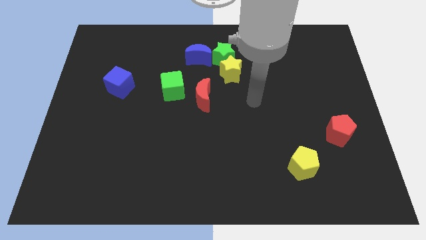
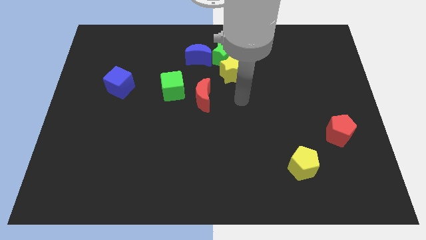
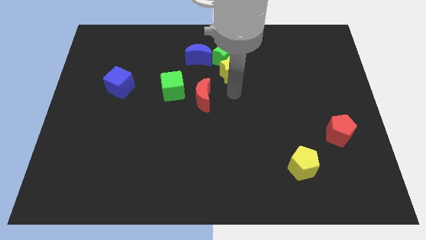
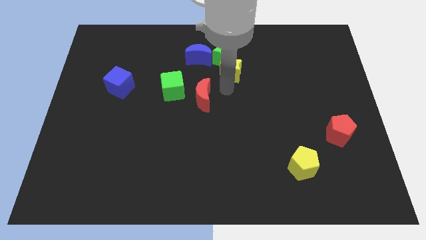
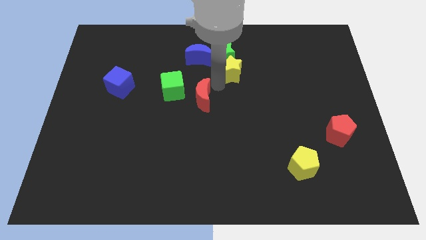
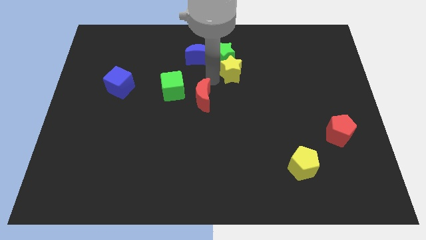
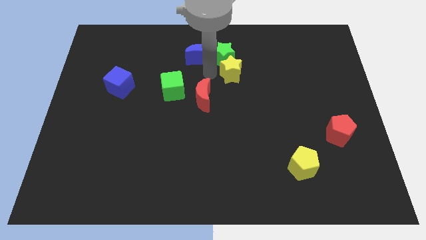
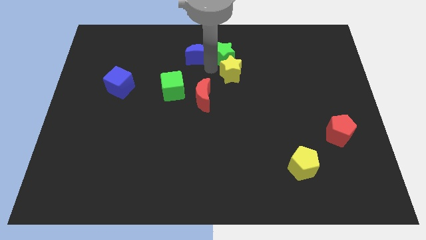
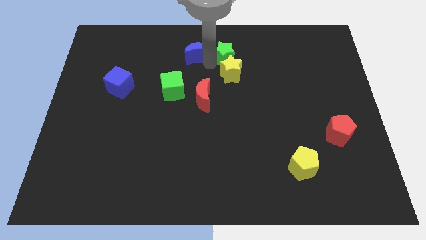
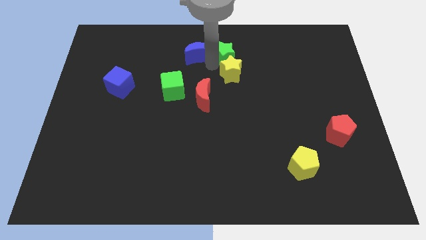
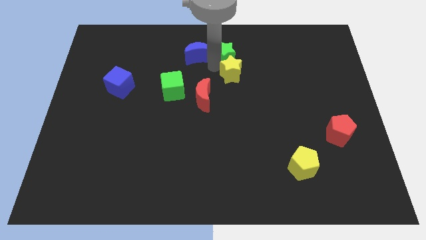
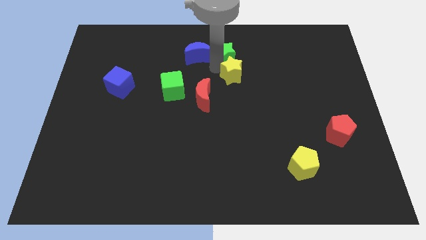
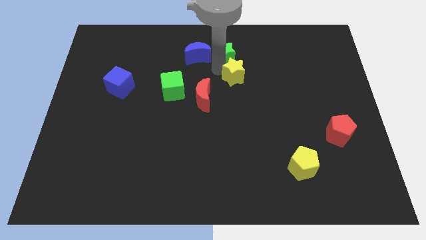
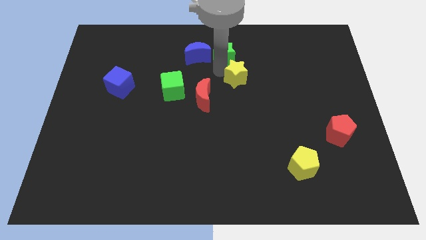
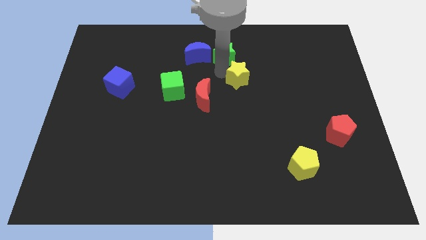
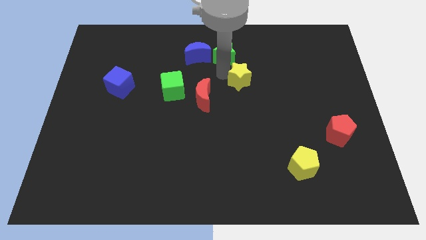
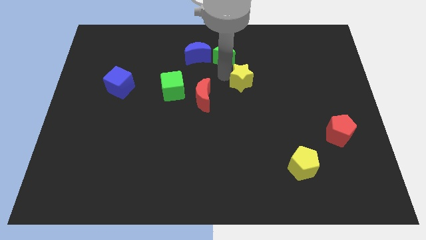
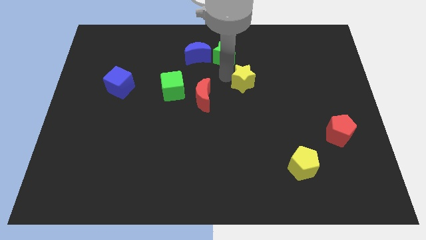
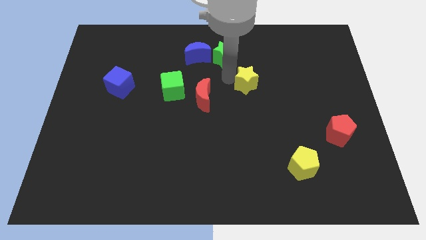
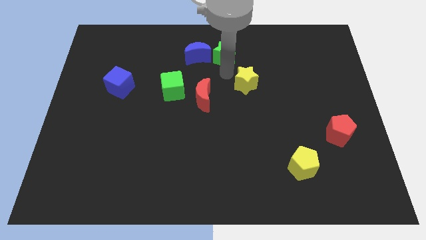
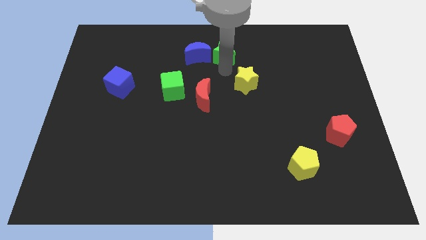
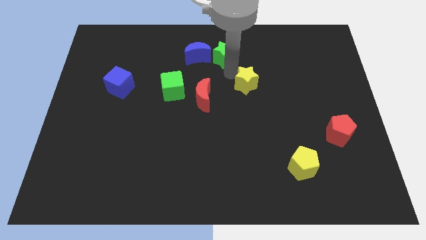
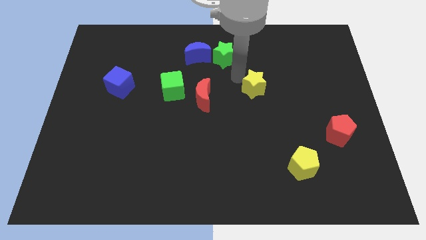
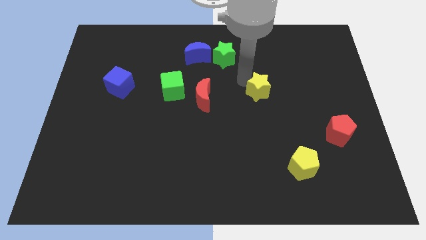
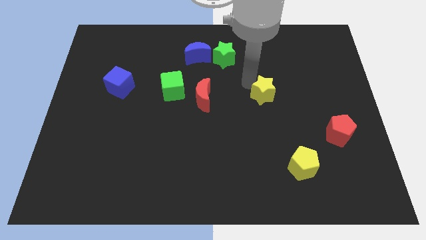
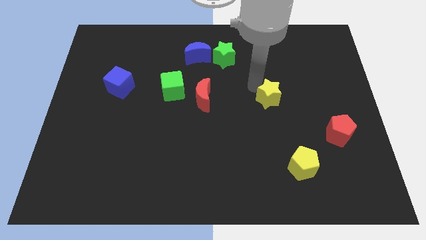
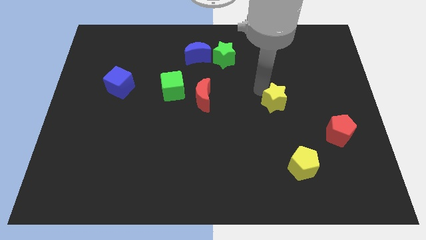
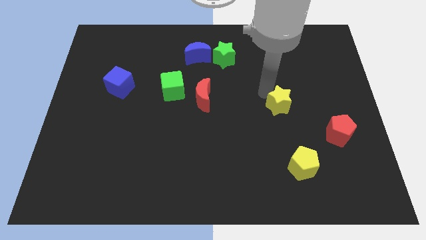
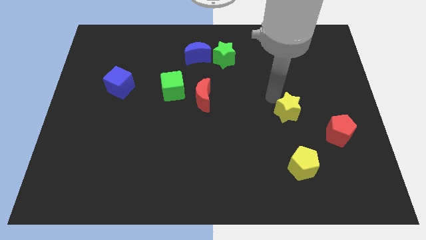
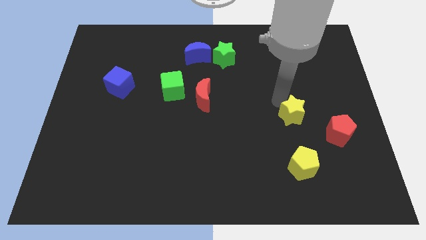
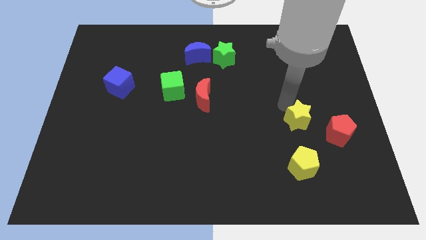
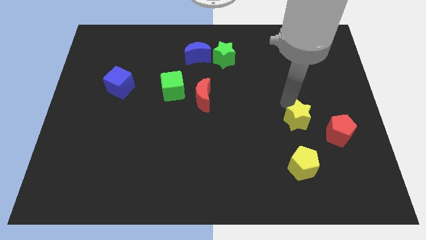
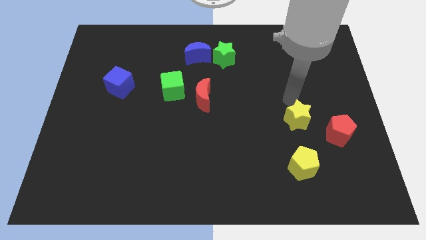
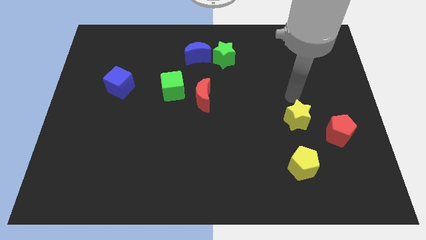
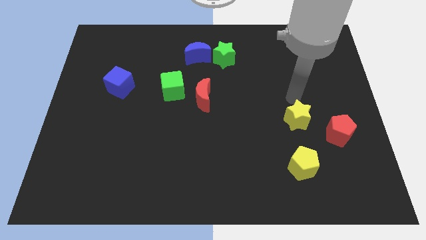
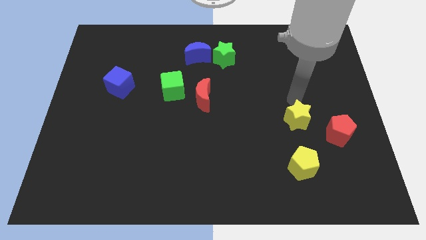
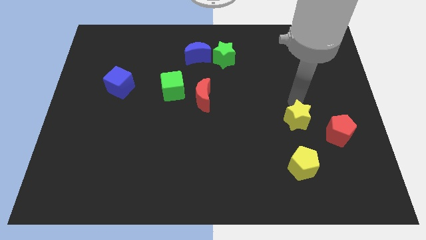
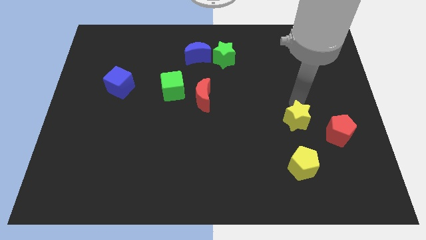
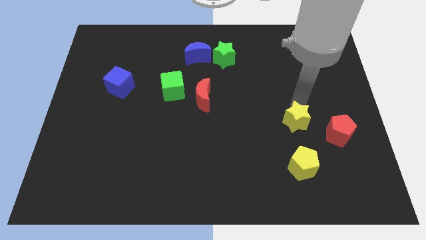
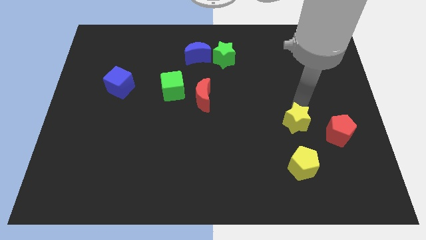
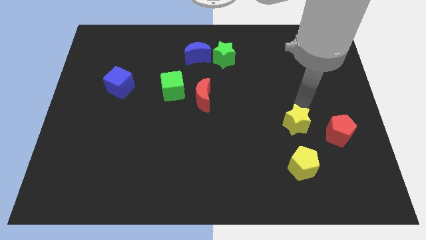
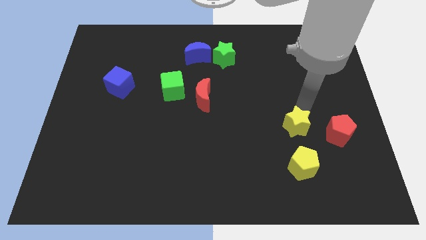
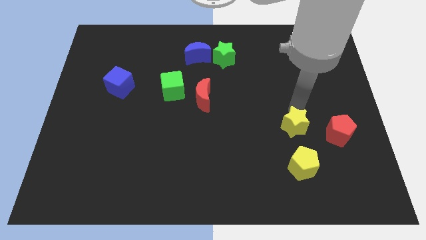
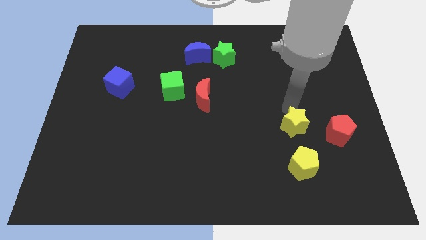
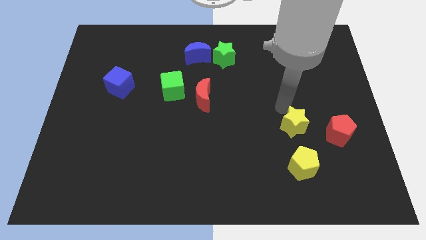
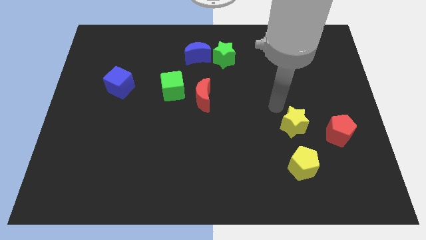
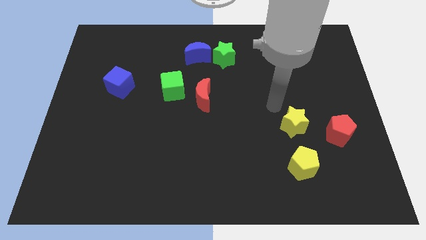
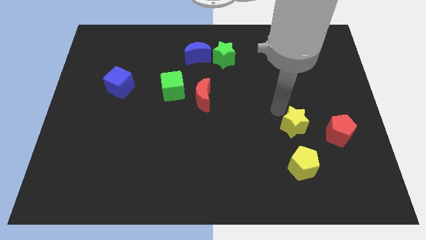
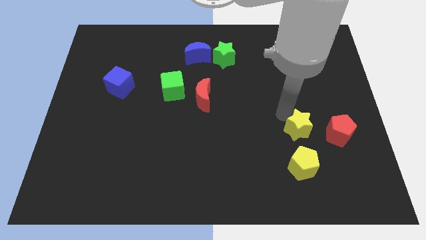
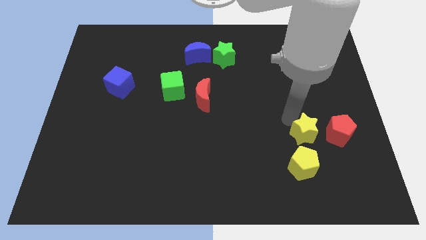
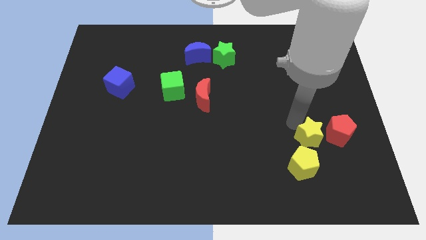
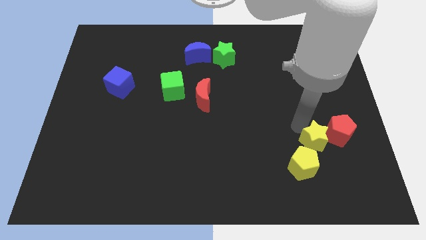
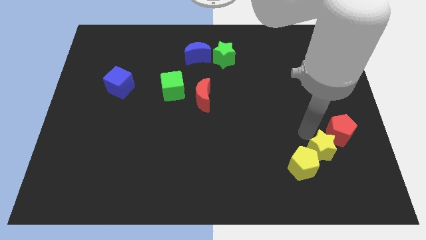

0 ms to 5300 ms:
move the yellow star just right of the yellow pentagon

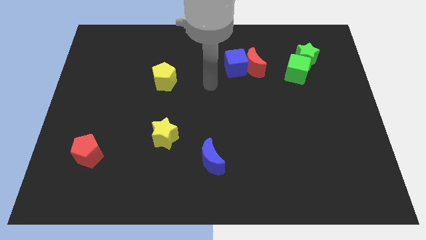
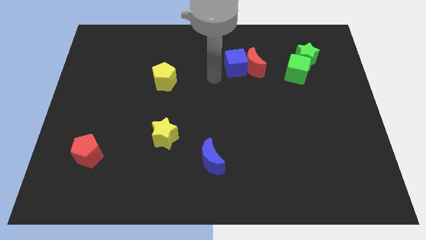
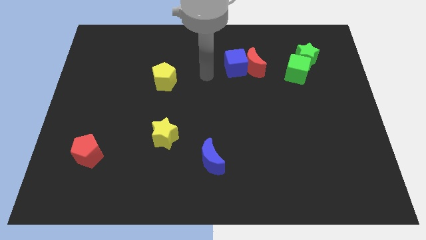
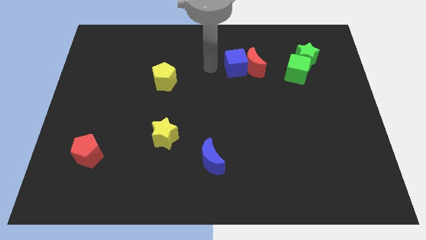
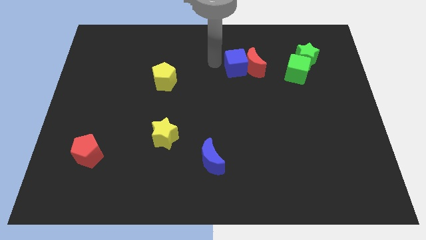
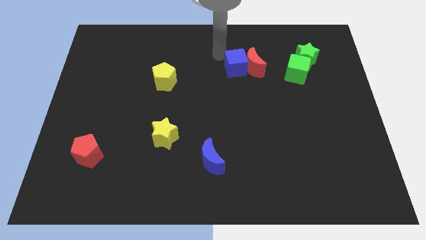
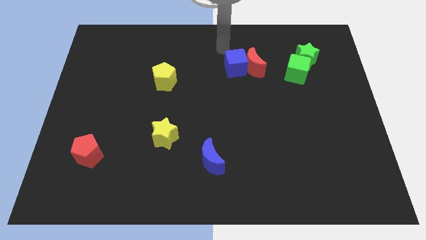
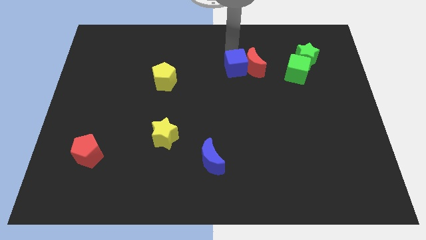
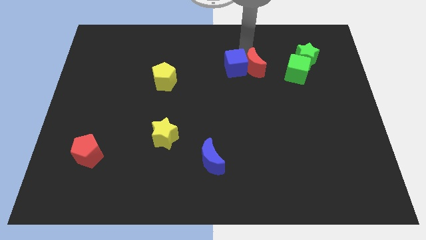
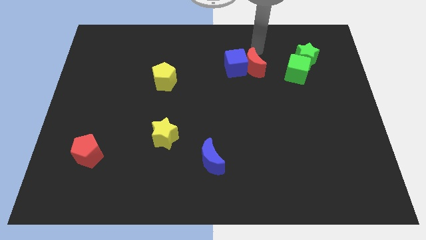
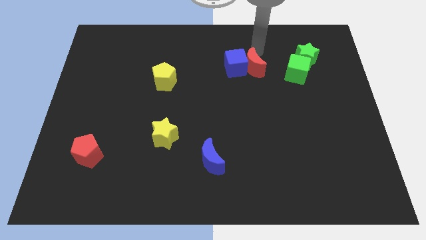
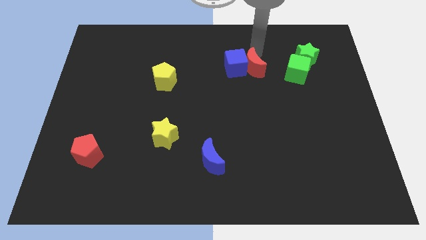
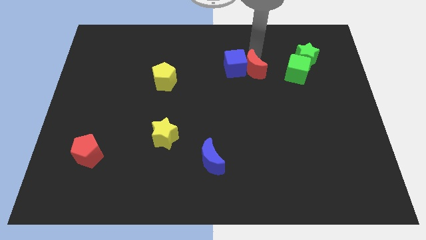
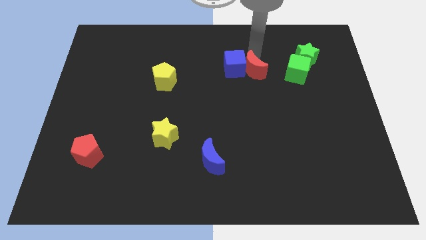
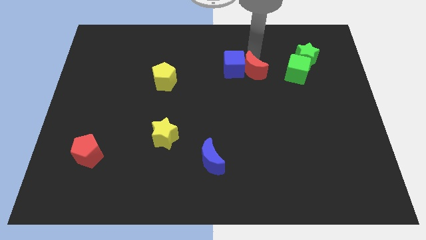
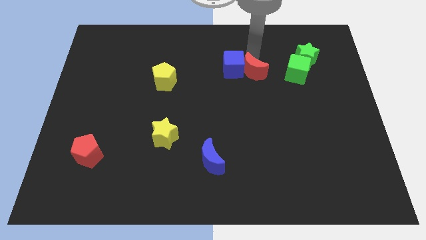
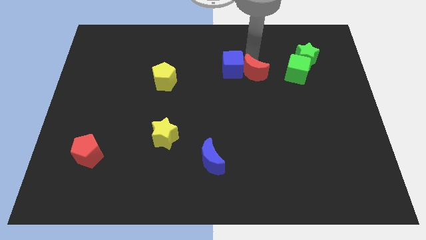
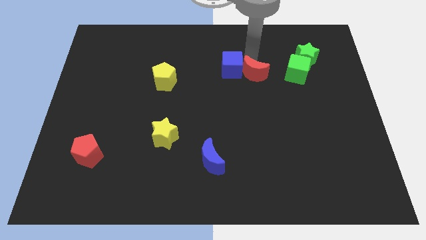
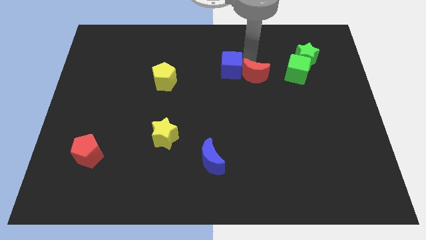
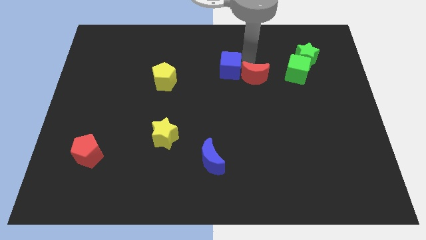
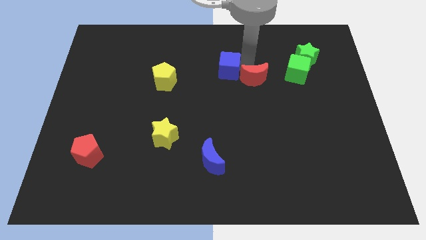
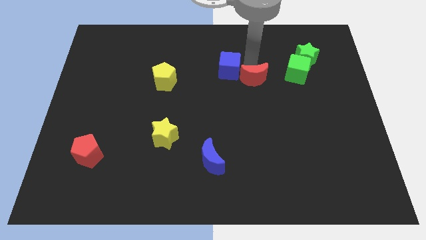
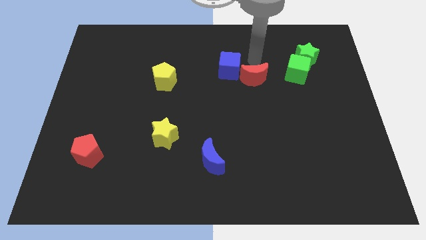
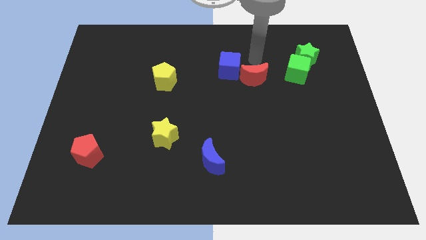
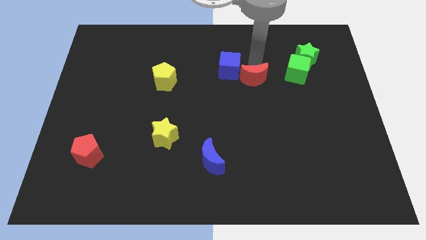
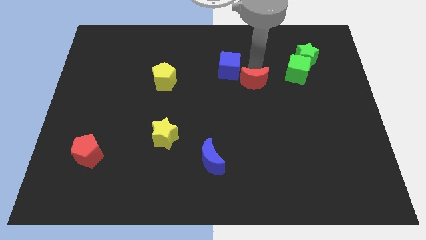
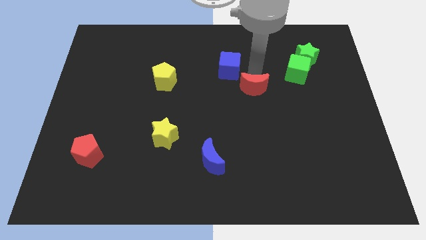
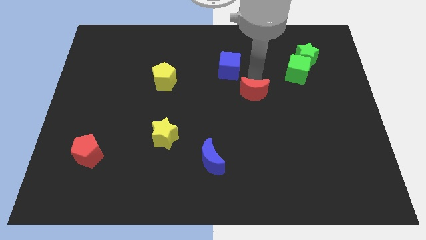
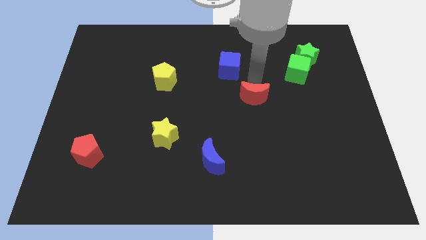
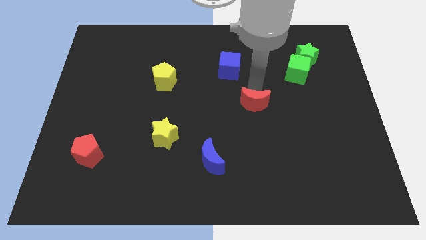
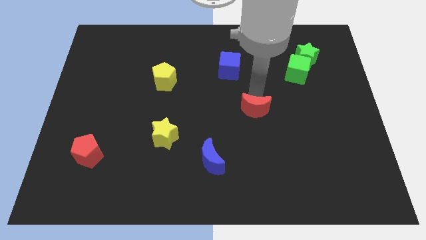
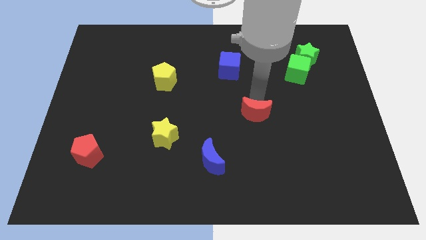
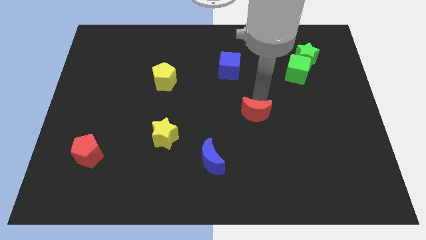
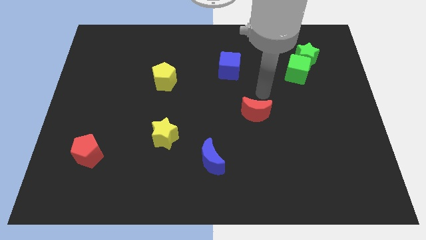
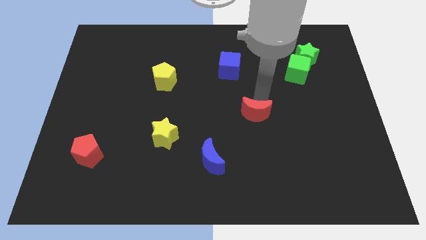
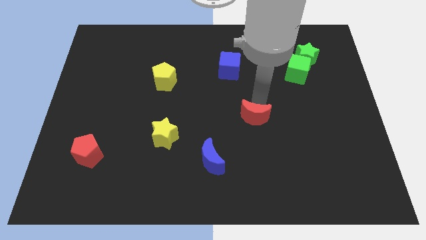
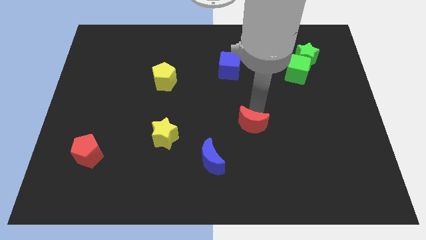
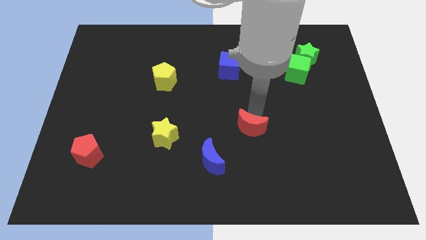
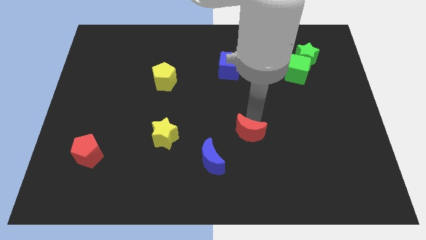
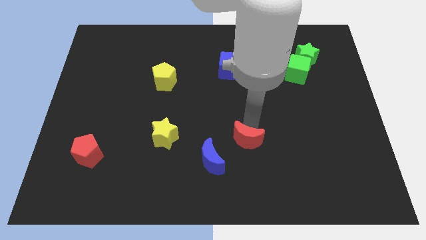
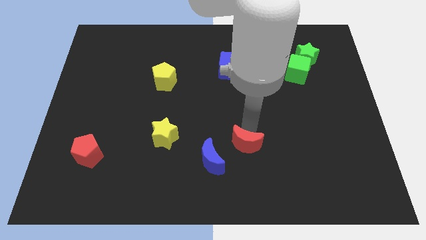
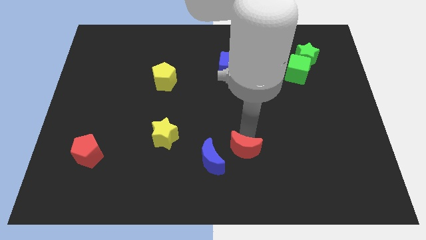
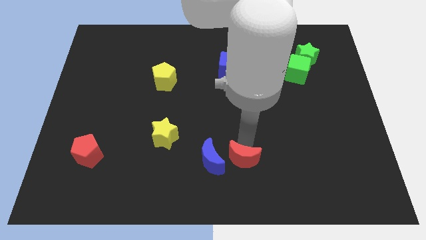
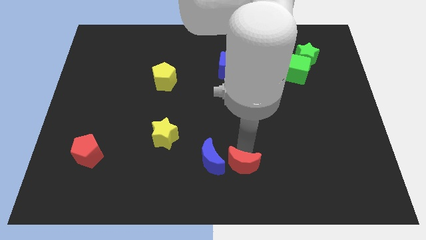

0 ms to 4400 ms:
push the red moon to the bottom right of the blue moon
